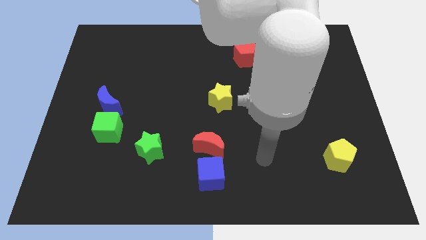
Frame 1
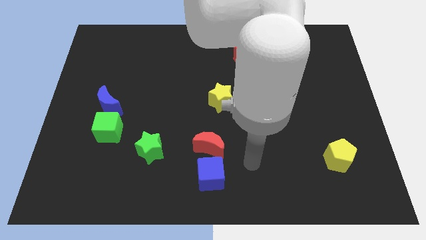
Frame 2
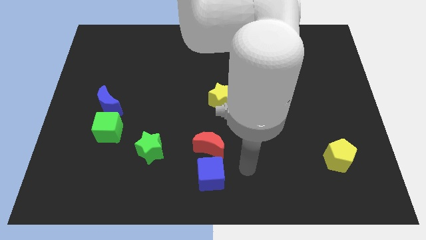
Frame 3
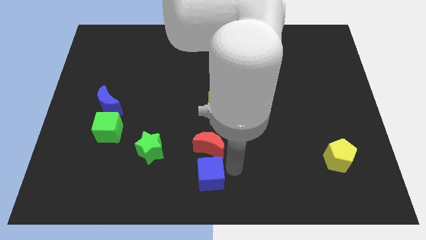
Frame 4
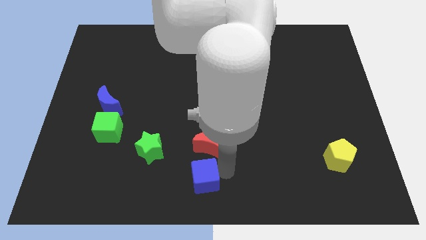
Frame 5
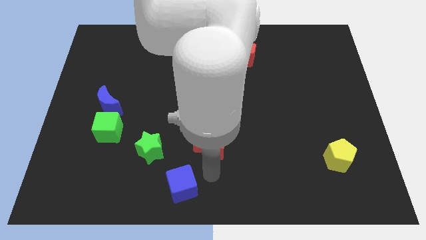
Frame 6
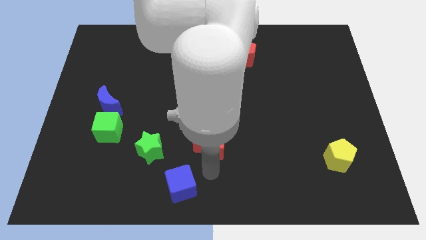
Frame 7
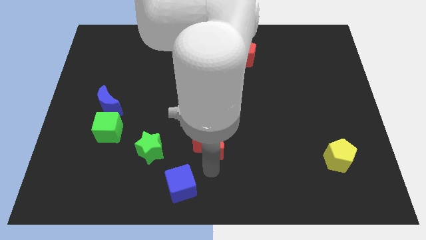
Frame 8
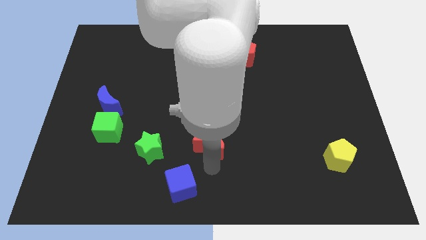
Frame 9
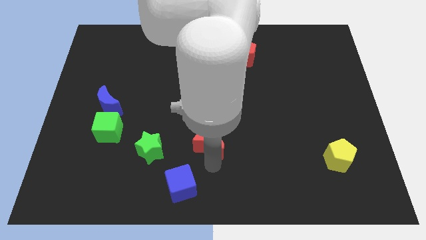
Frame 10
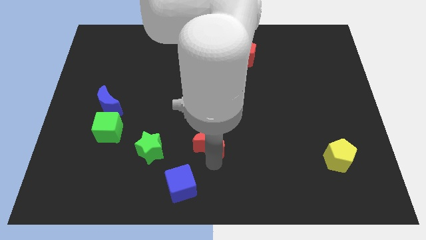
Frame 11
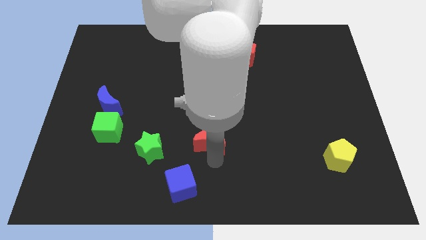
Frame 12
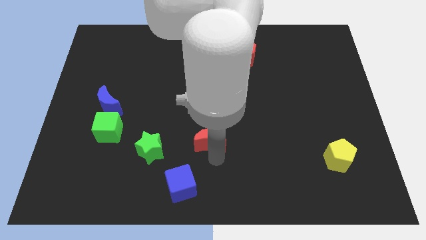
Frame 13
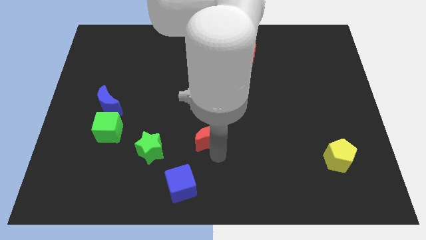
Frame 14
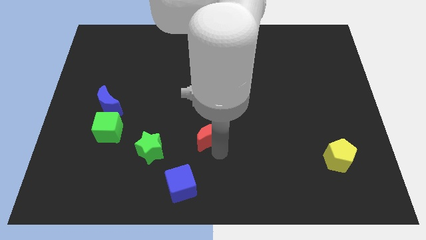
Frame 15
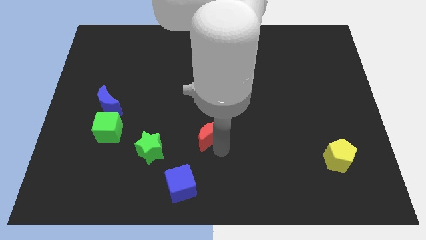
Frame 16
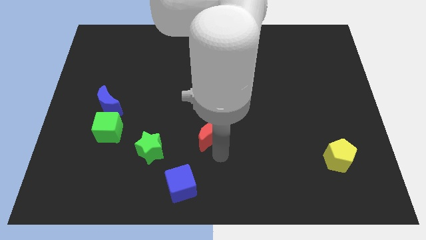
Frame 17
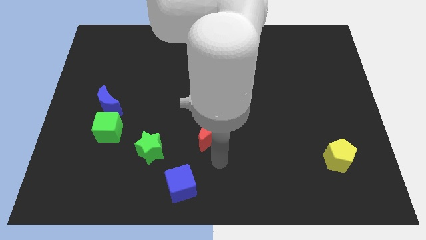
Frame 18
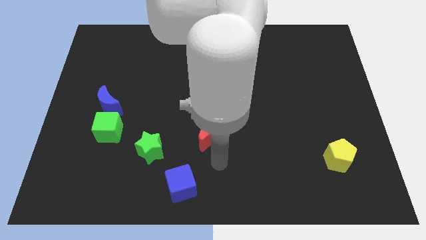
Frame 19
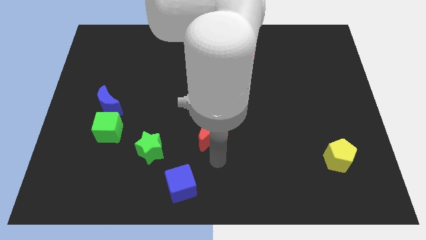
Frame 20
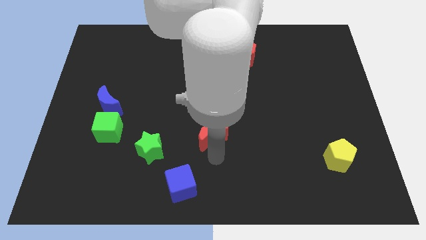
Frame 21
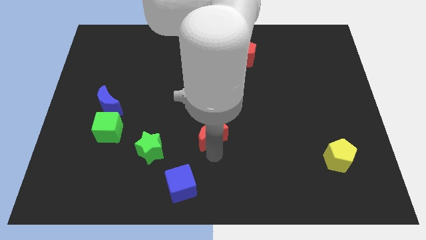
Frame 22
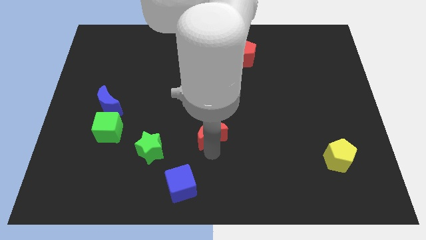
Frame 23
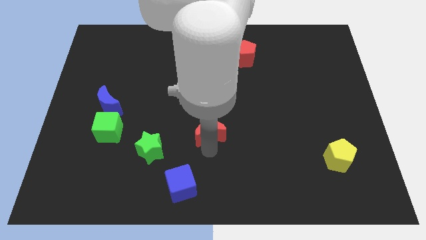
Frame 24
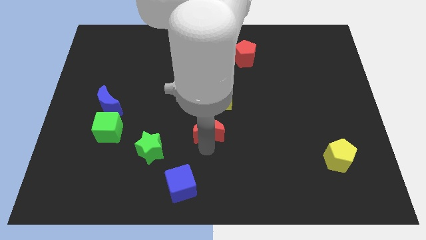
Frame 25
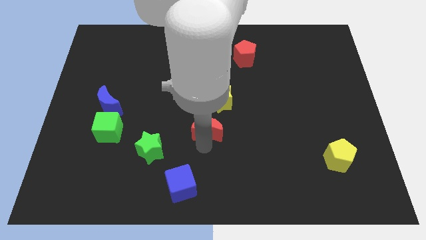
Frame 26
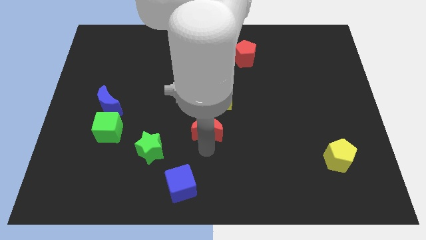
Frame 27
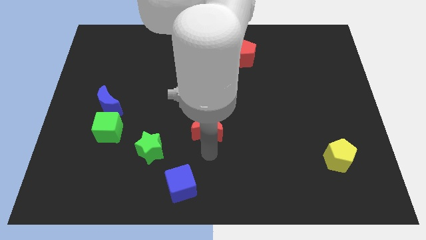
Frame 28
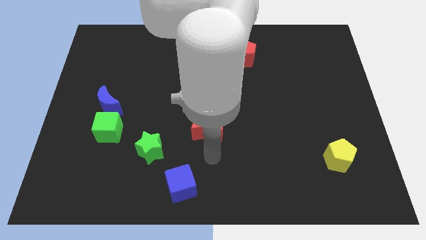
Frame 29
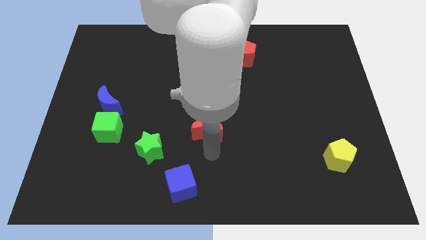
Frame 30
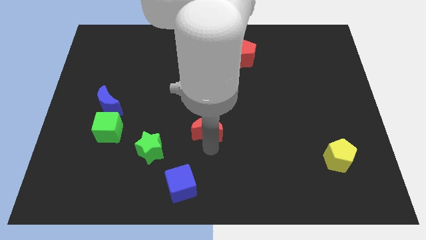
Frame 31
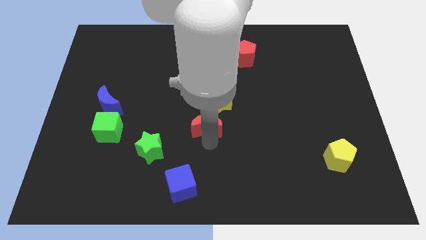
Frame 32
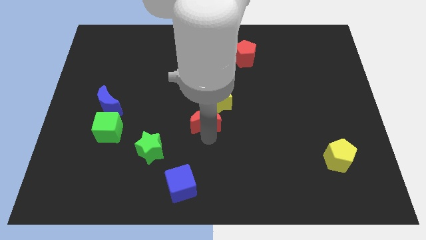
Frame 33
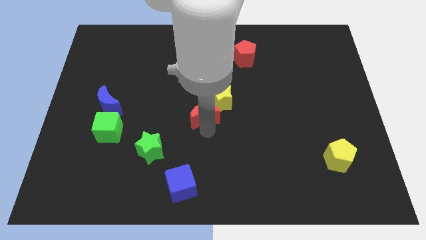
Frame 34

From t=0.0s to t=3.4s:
slide the red moon up a bit

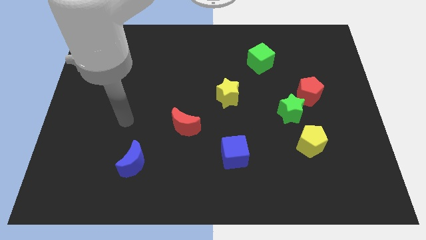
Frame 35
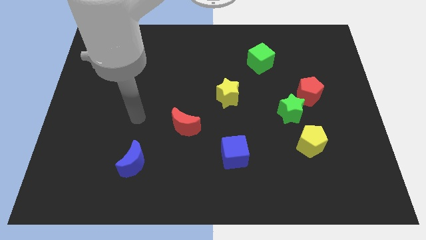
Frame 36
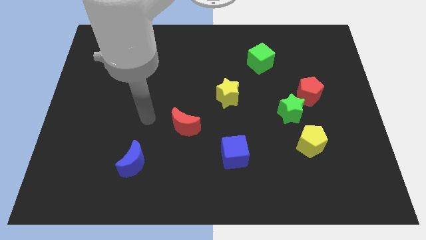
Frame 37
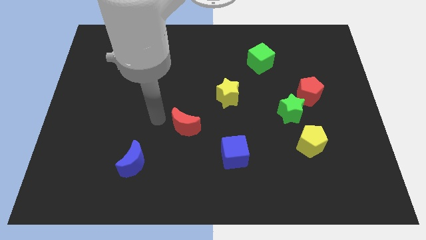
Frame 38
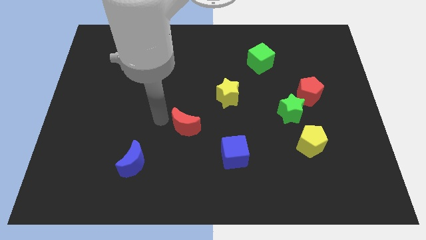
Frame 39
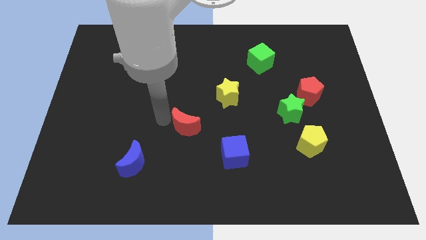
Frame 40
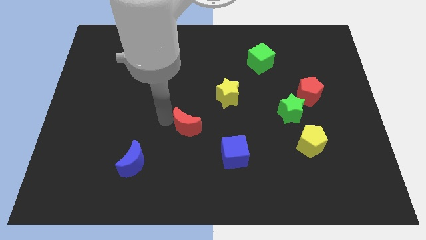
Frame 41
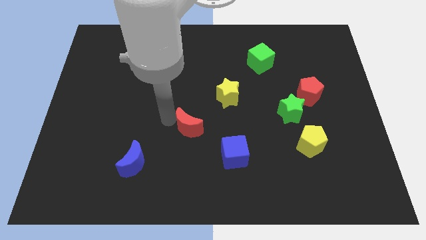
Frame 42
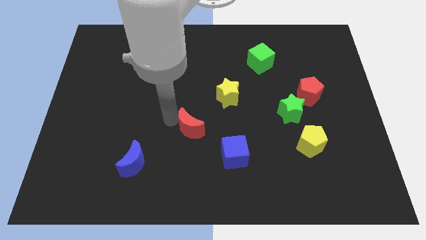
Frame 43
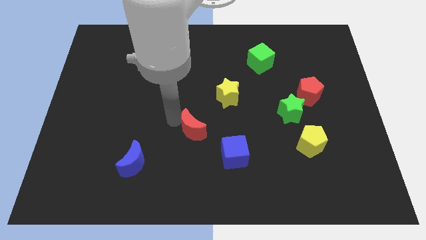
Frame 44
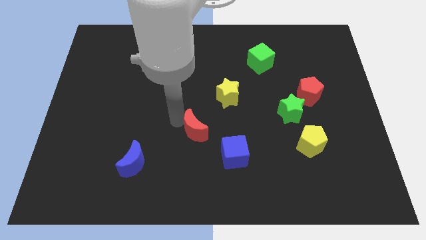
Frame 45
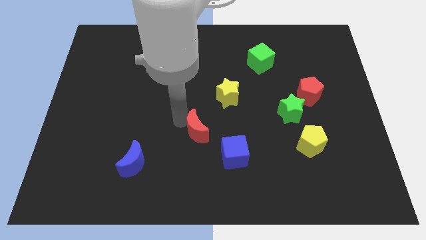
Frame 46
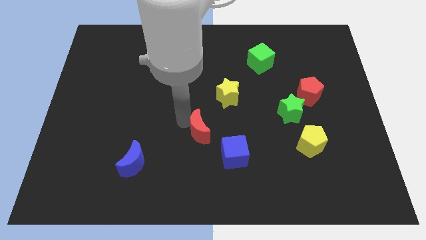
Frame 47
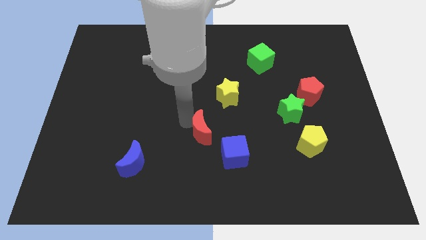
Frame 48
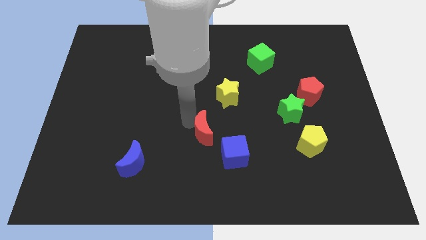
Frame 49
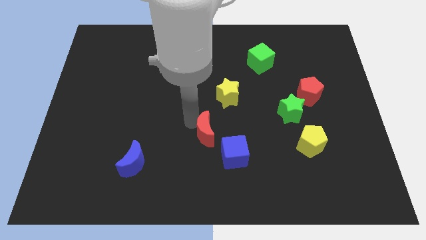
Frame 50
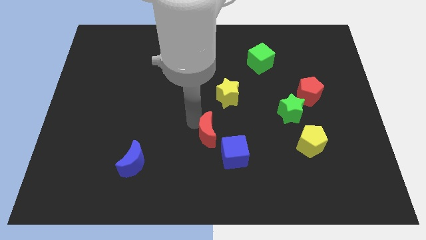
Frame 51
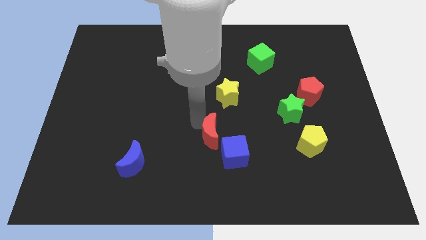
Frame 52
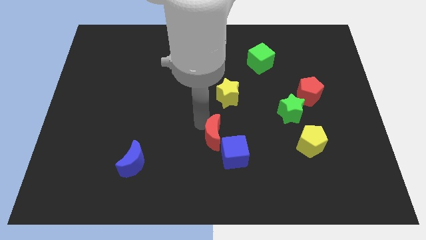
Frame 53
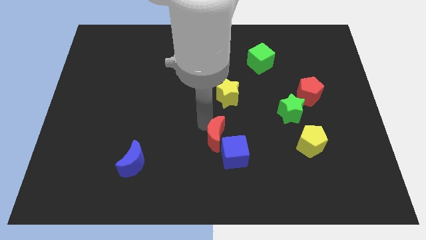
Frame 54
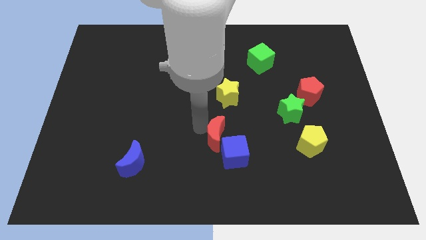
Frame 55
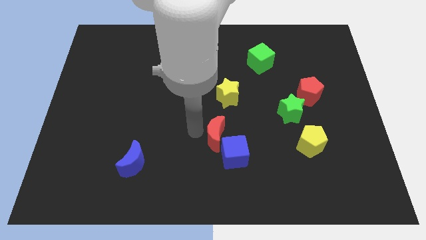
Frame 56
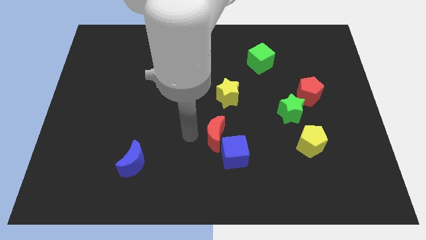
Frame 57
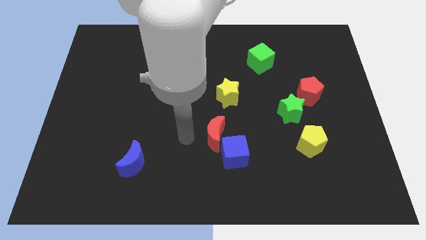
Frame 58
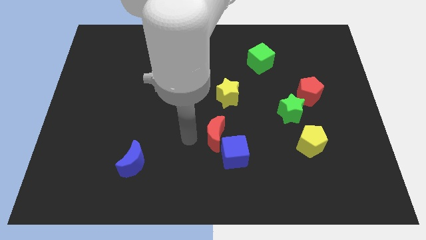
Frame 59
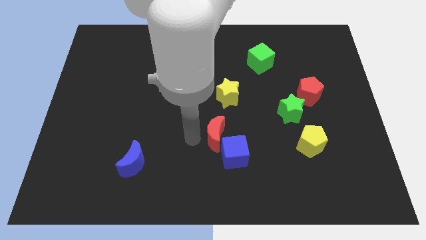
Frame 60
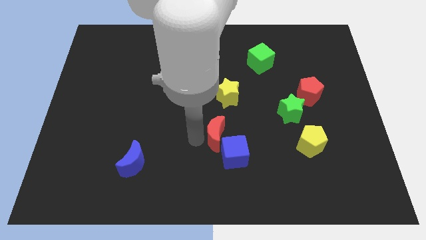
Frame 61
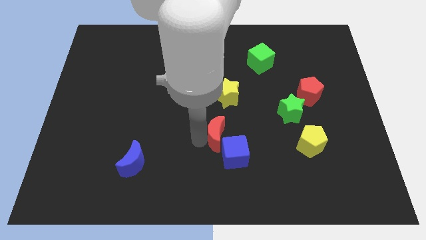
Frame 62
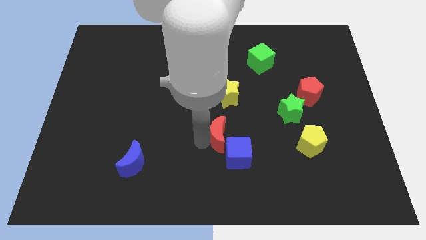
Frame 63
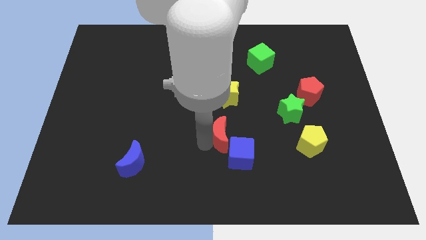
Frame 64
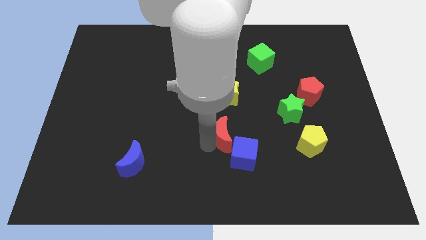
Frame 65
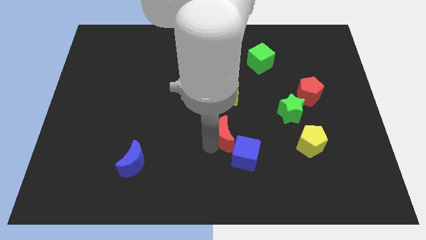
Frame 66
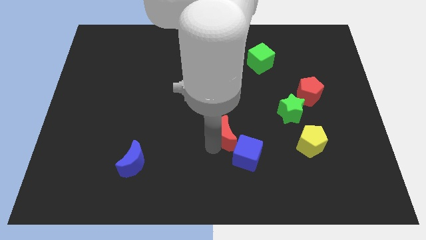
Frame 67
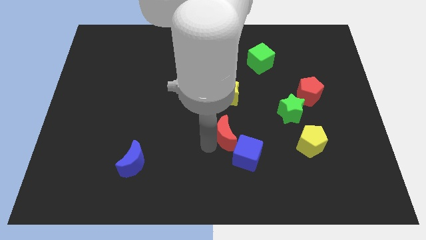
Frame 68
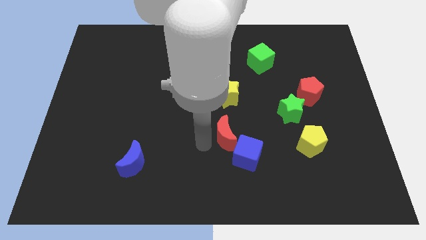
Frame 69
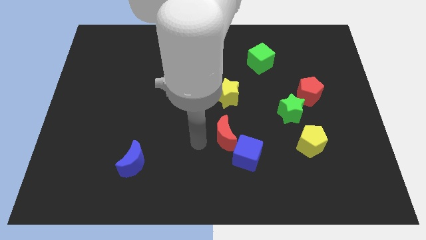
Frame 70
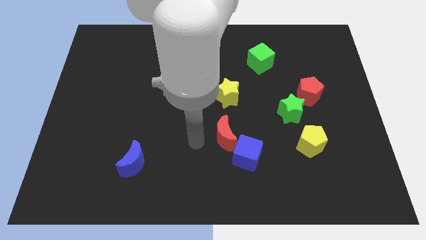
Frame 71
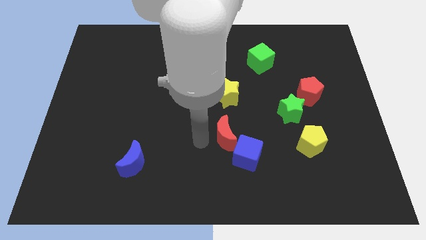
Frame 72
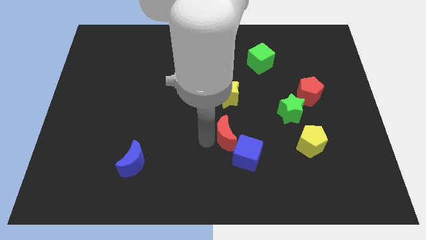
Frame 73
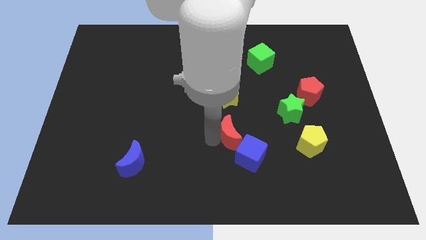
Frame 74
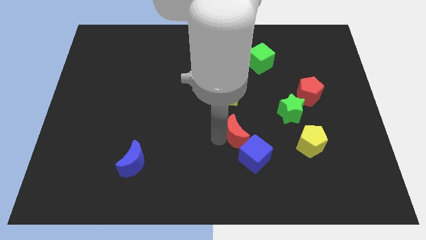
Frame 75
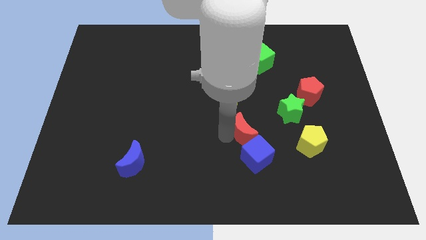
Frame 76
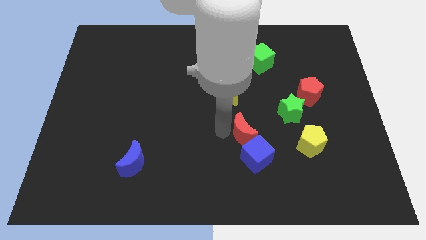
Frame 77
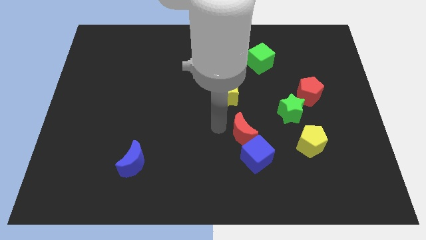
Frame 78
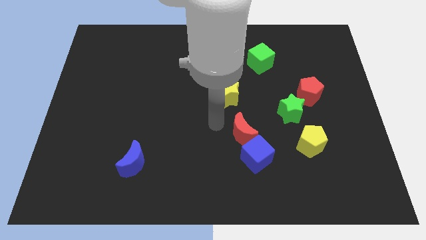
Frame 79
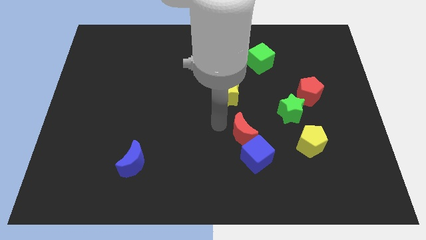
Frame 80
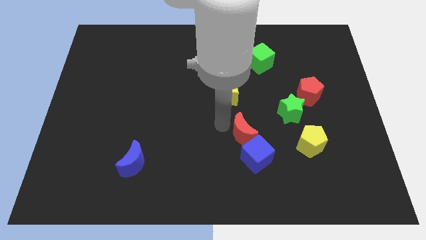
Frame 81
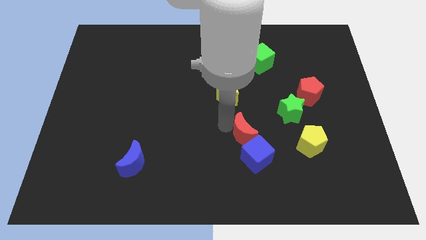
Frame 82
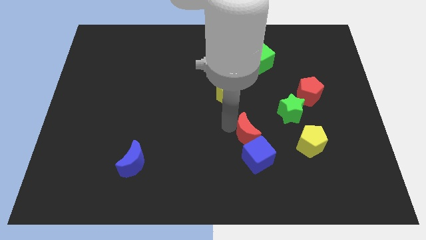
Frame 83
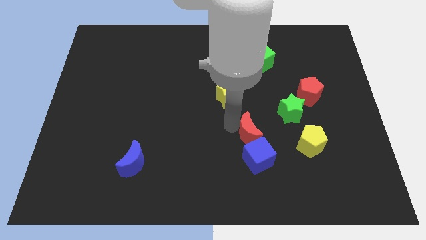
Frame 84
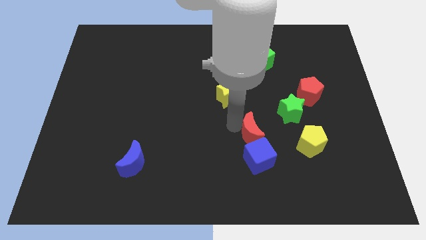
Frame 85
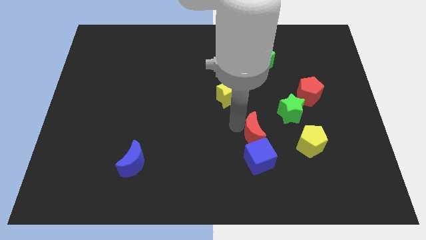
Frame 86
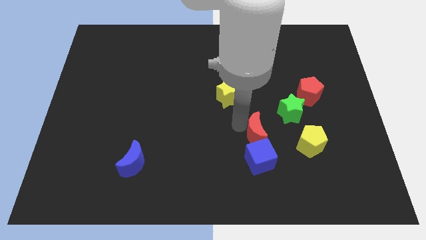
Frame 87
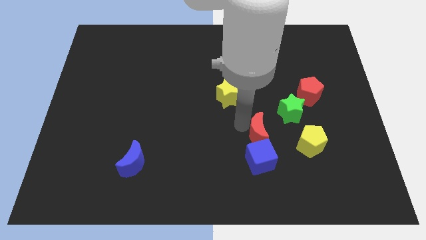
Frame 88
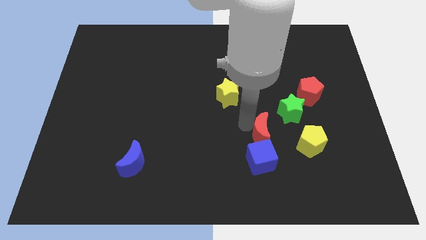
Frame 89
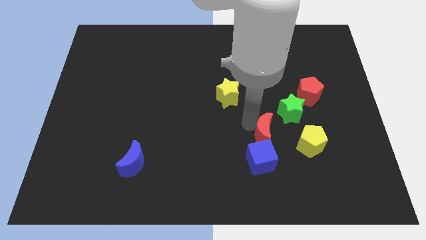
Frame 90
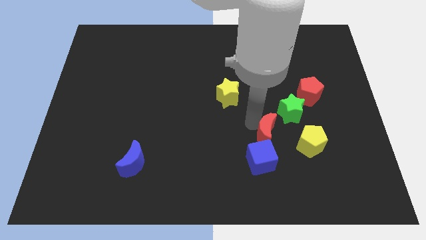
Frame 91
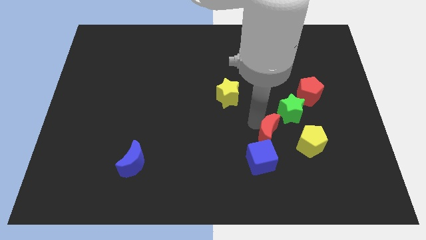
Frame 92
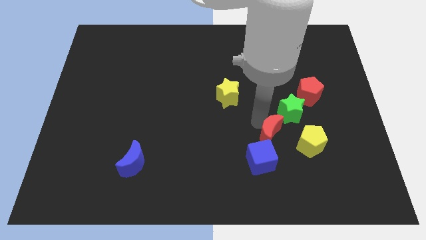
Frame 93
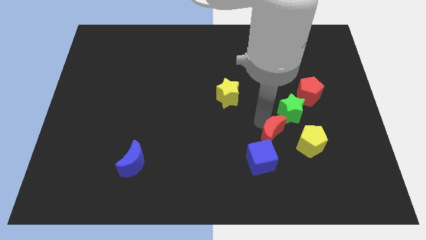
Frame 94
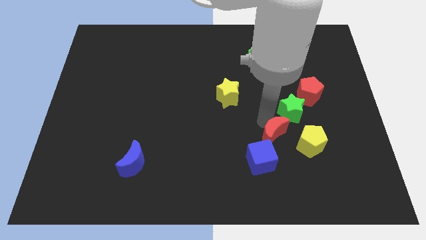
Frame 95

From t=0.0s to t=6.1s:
slide the red moon right
